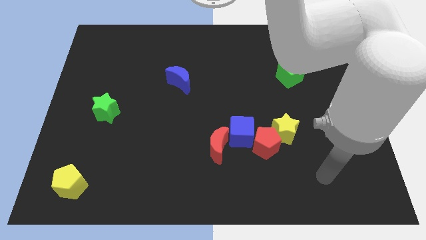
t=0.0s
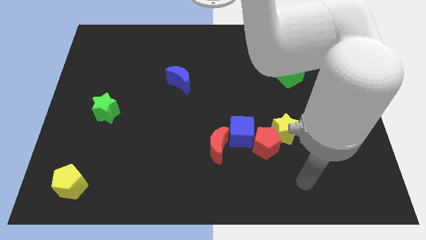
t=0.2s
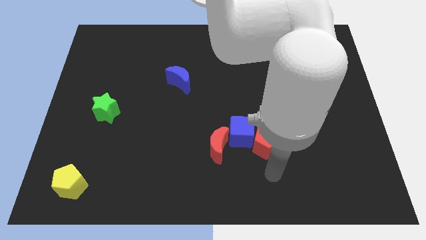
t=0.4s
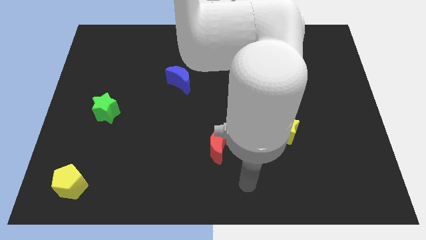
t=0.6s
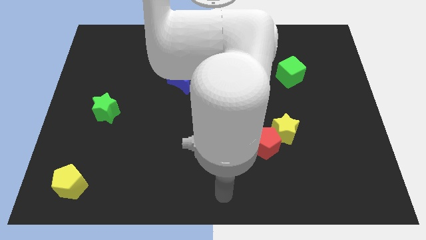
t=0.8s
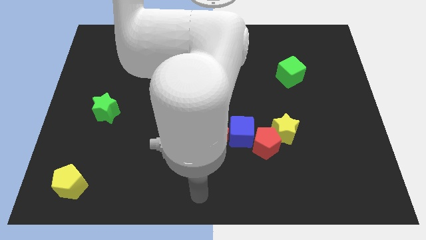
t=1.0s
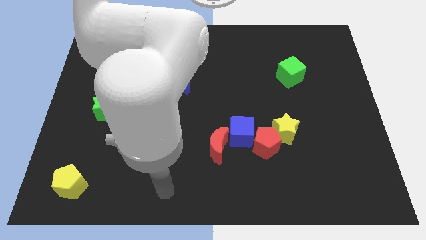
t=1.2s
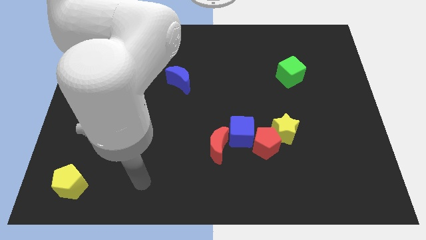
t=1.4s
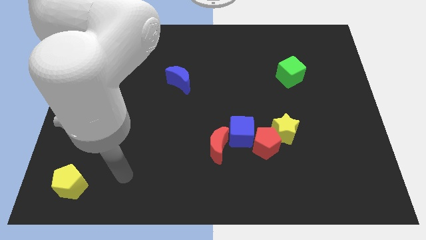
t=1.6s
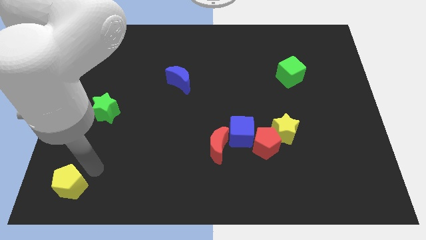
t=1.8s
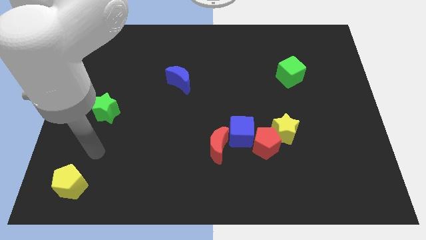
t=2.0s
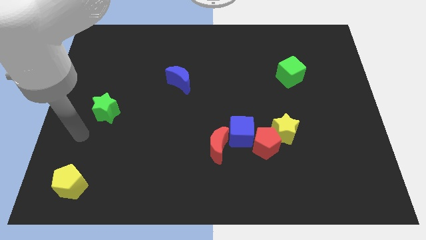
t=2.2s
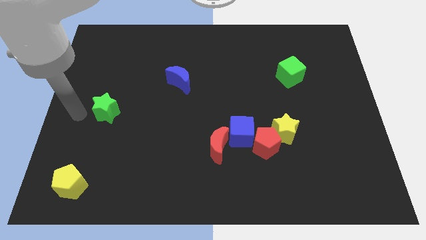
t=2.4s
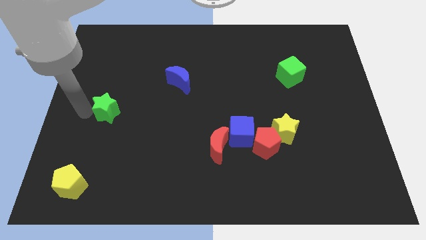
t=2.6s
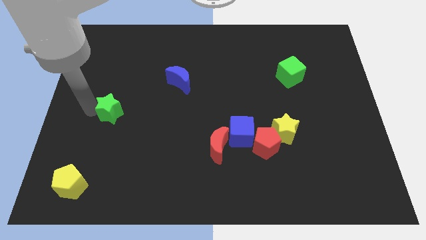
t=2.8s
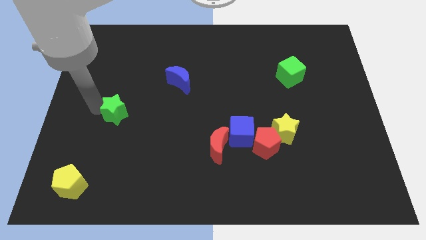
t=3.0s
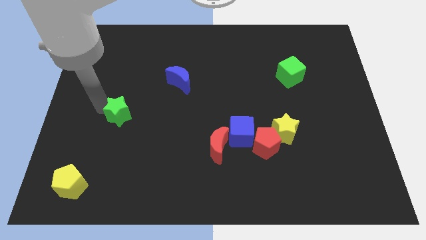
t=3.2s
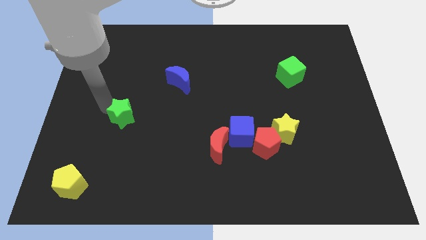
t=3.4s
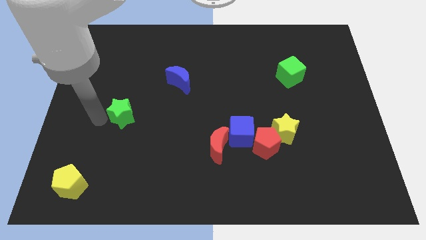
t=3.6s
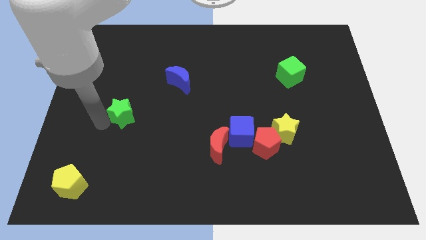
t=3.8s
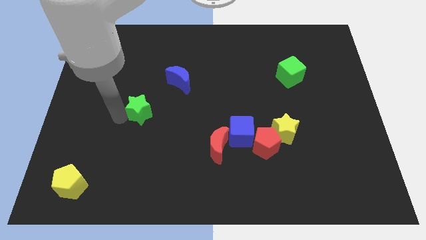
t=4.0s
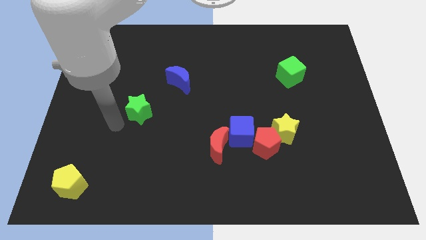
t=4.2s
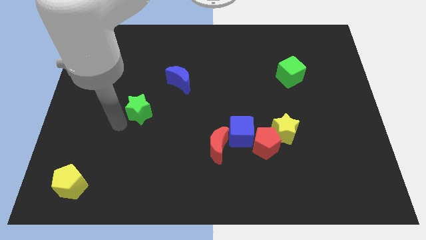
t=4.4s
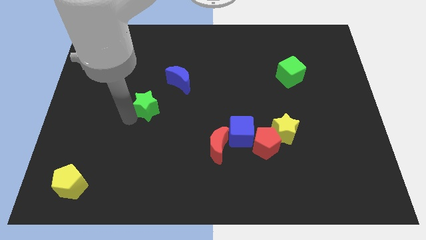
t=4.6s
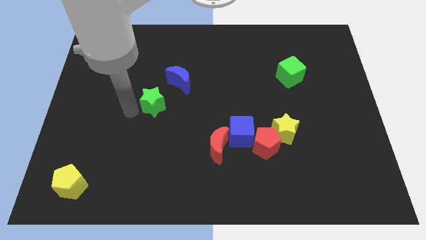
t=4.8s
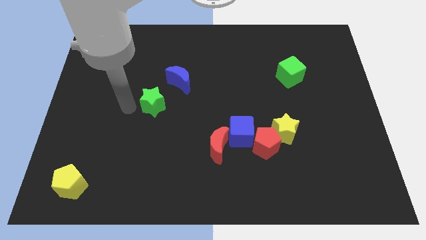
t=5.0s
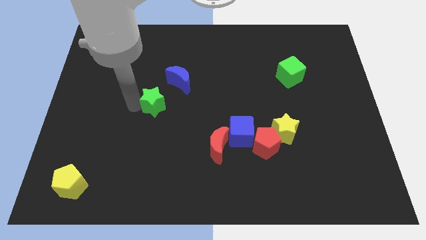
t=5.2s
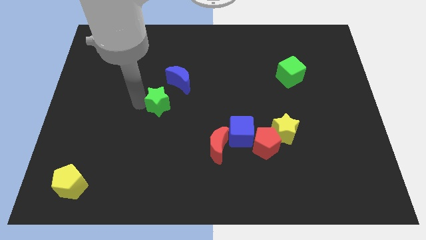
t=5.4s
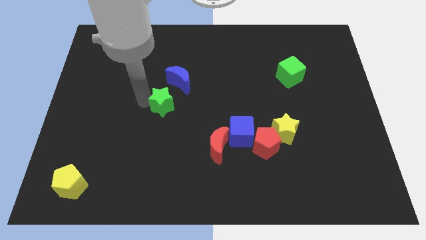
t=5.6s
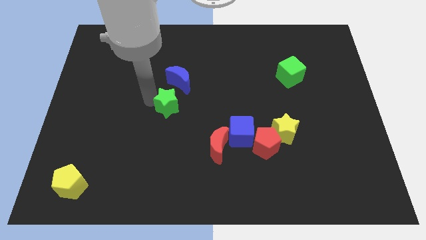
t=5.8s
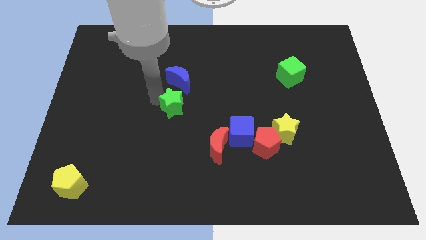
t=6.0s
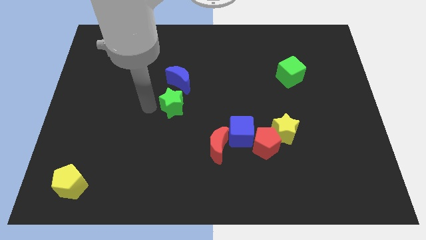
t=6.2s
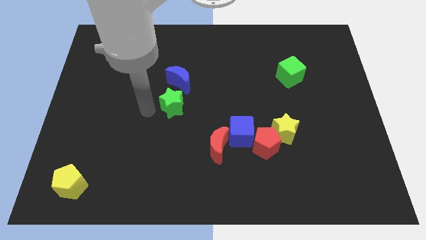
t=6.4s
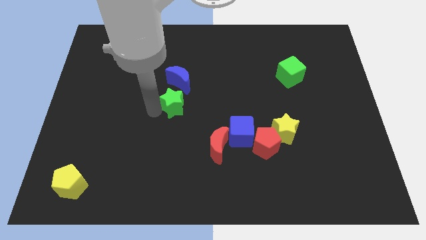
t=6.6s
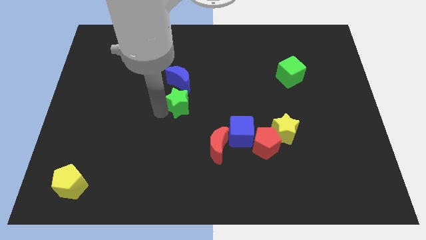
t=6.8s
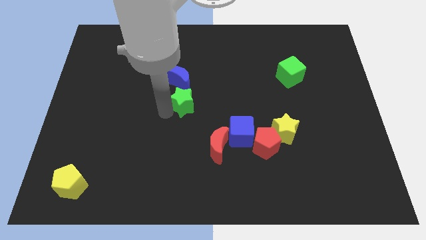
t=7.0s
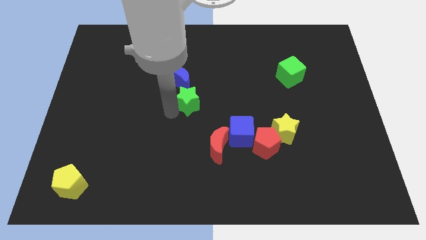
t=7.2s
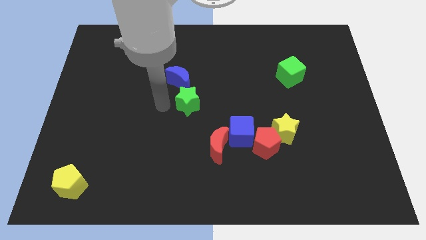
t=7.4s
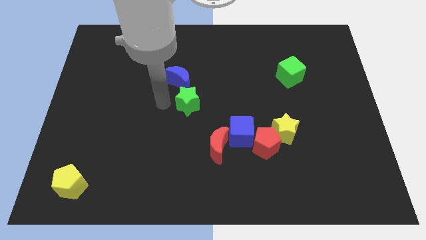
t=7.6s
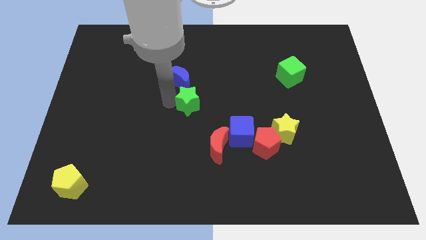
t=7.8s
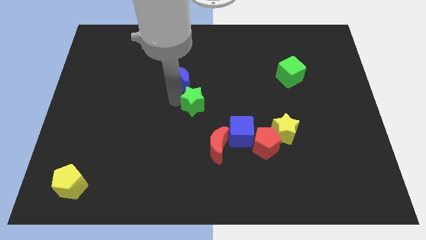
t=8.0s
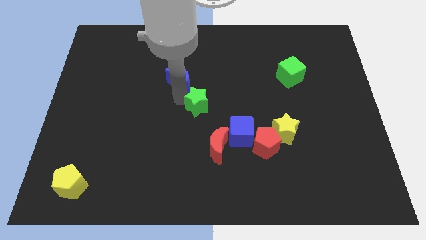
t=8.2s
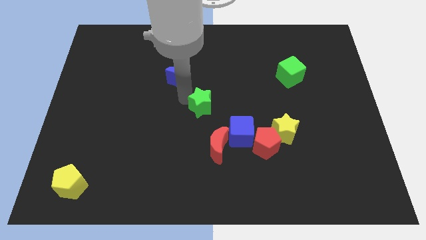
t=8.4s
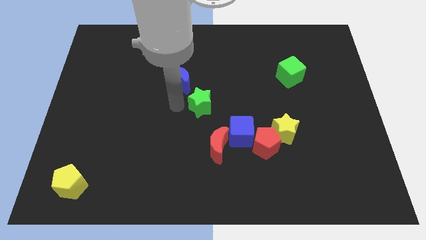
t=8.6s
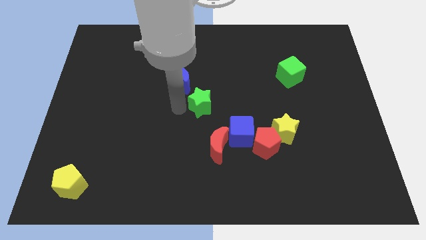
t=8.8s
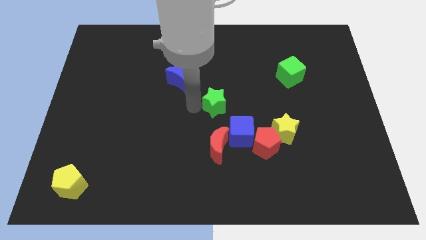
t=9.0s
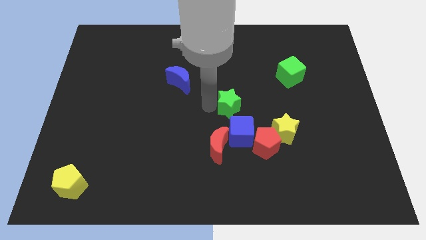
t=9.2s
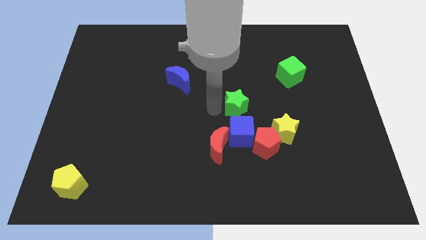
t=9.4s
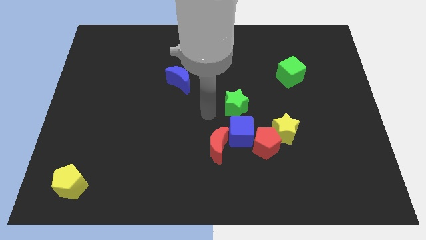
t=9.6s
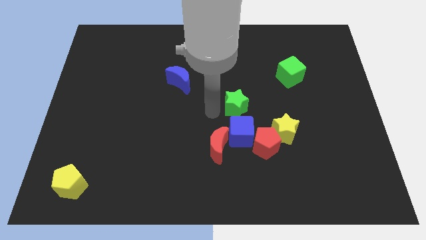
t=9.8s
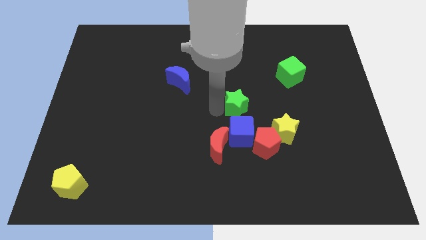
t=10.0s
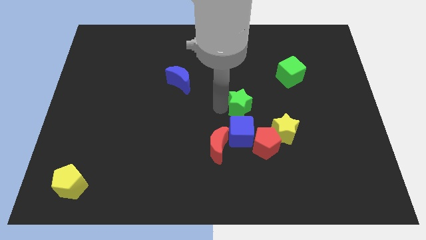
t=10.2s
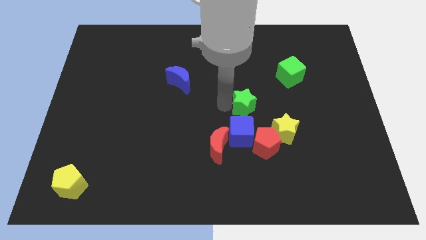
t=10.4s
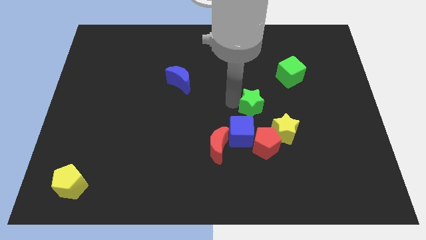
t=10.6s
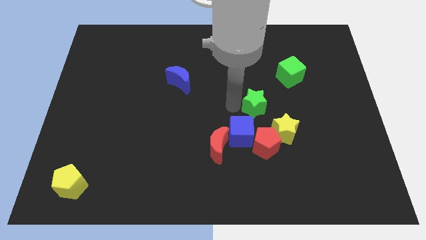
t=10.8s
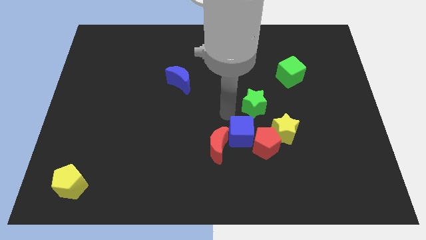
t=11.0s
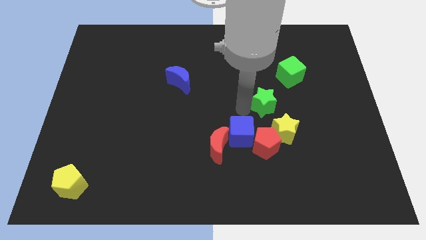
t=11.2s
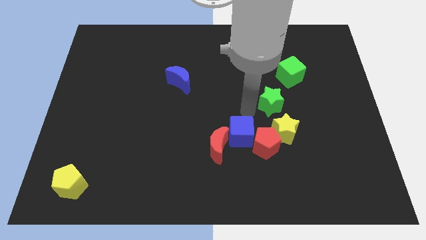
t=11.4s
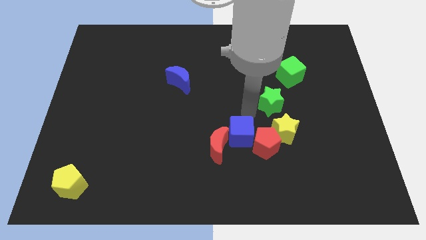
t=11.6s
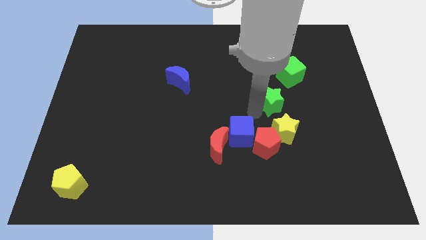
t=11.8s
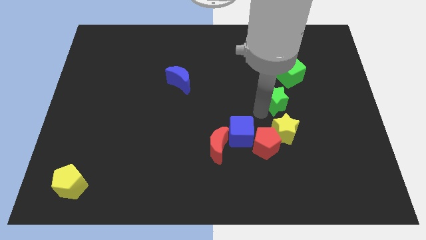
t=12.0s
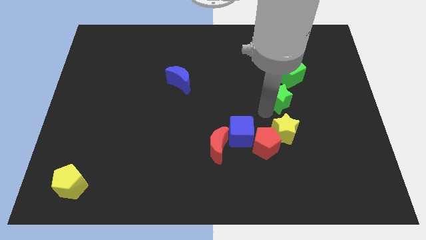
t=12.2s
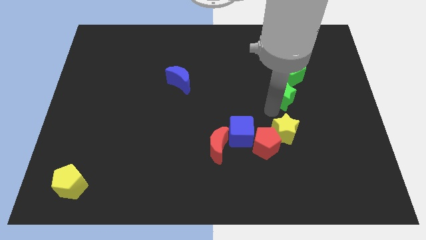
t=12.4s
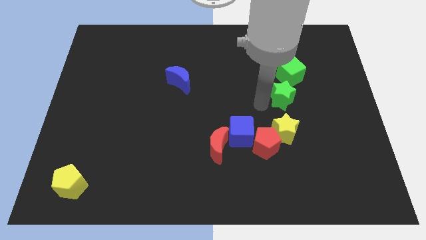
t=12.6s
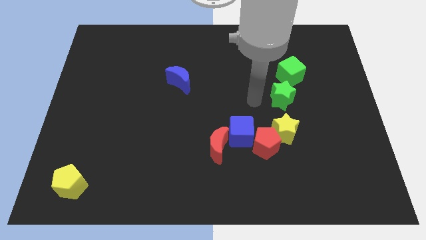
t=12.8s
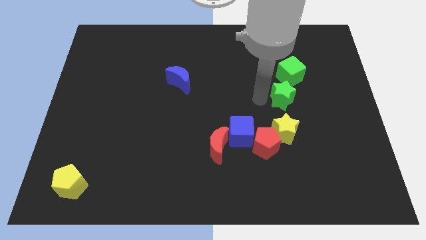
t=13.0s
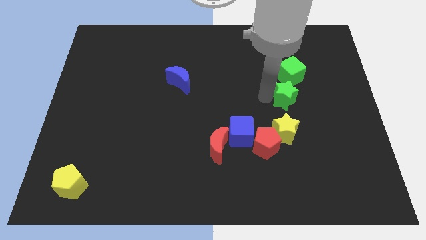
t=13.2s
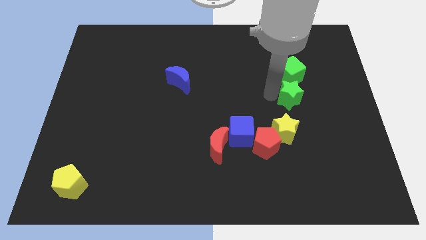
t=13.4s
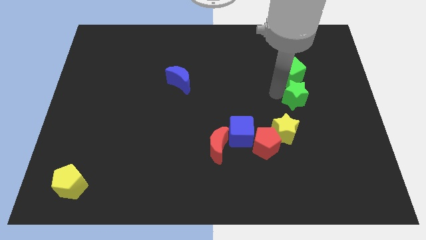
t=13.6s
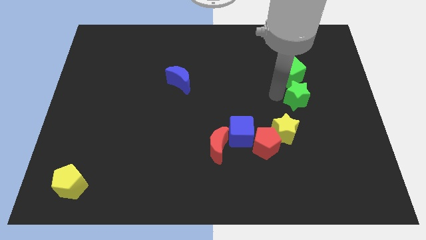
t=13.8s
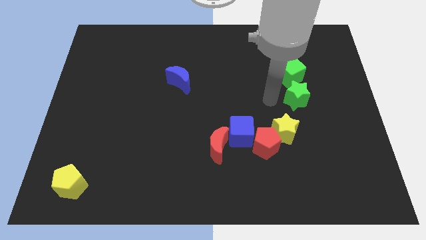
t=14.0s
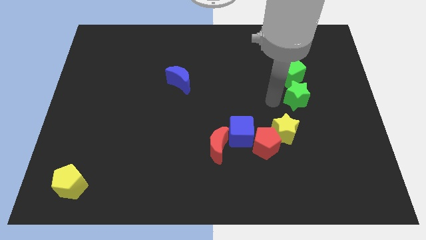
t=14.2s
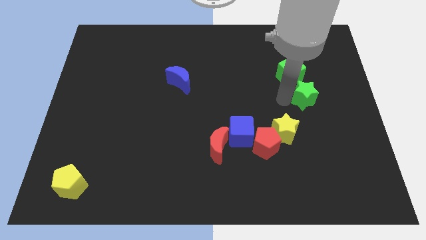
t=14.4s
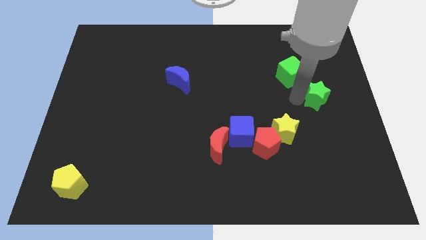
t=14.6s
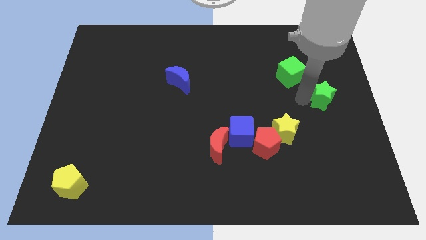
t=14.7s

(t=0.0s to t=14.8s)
put the green star to the right side
